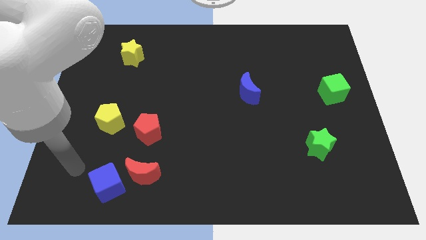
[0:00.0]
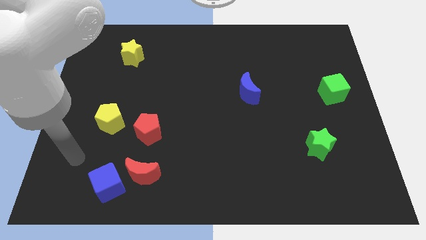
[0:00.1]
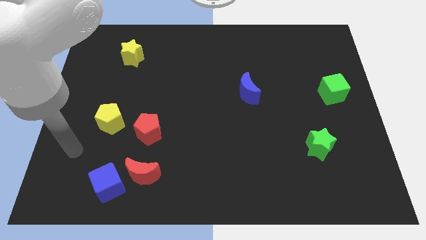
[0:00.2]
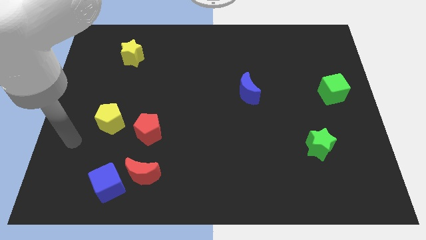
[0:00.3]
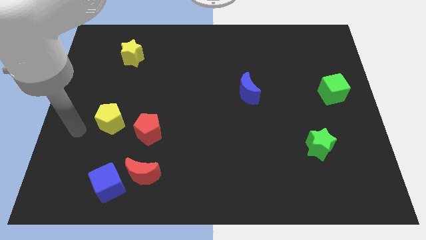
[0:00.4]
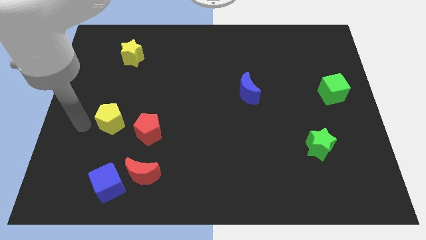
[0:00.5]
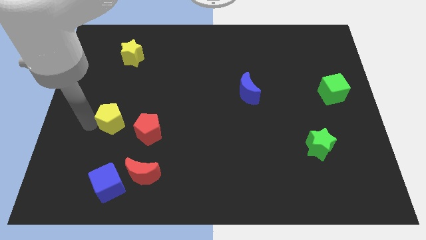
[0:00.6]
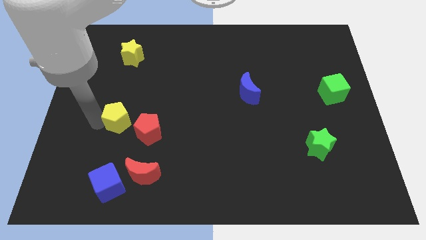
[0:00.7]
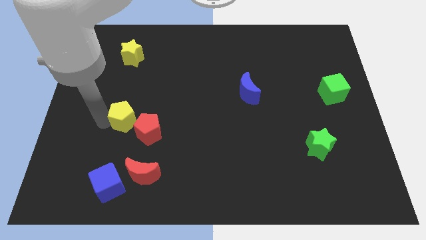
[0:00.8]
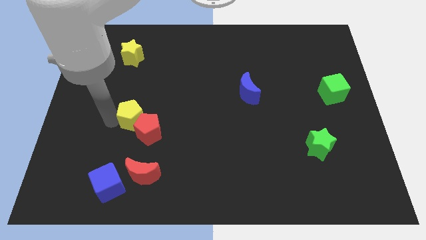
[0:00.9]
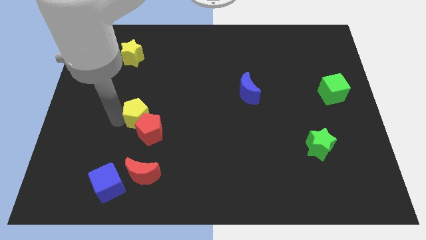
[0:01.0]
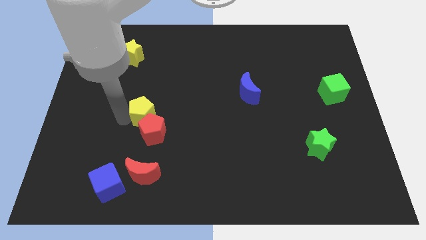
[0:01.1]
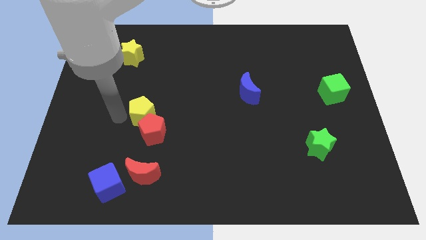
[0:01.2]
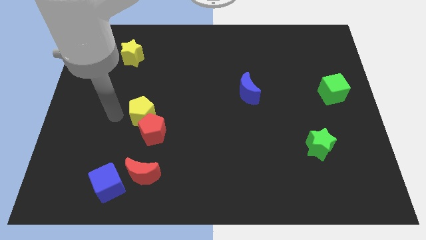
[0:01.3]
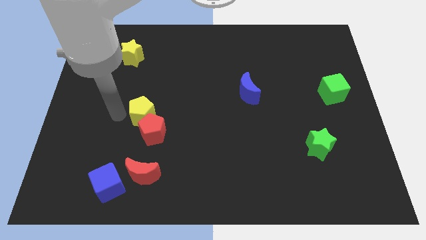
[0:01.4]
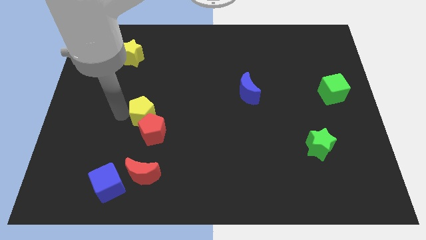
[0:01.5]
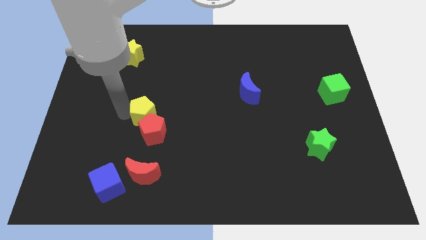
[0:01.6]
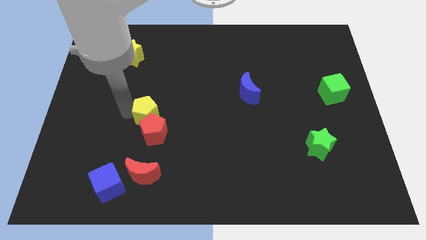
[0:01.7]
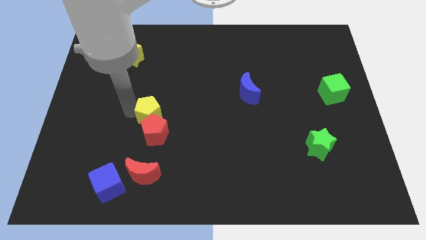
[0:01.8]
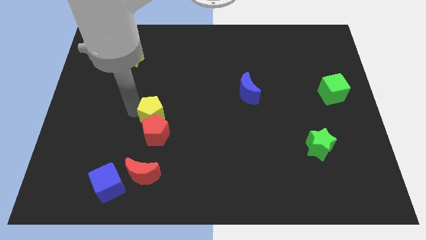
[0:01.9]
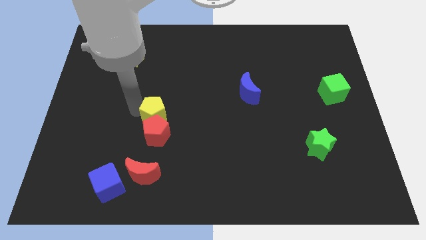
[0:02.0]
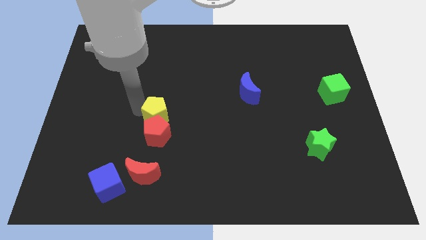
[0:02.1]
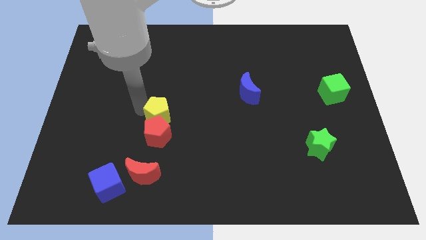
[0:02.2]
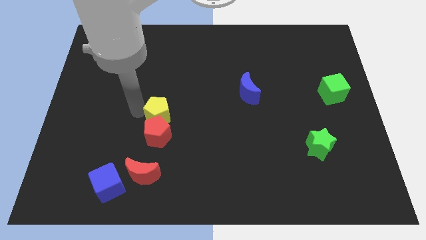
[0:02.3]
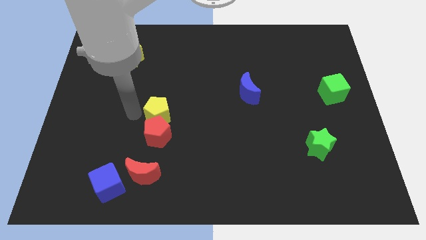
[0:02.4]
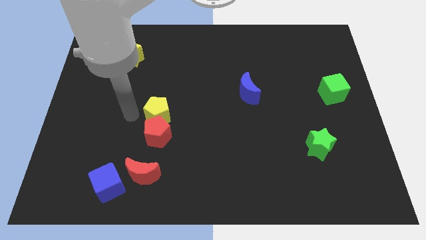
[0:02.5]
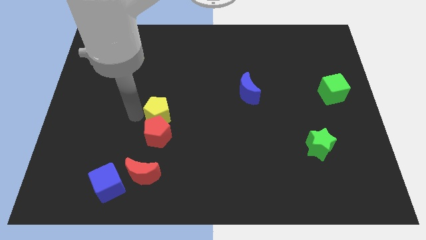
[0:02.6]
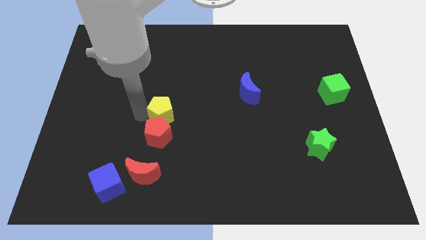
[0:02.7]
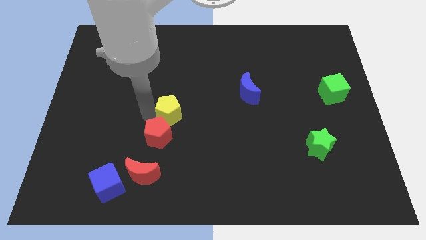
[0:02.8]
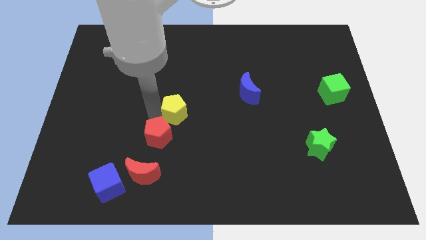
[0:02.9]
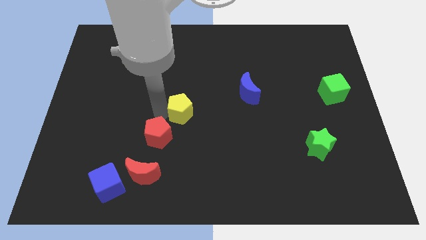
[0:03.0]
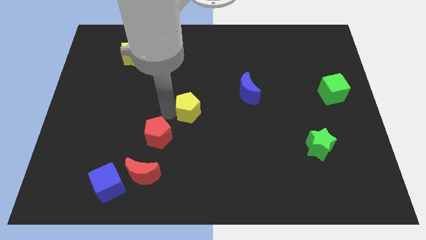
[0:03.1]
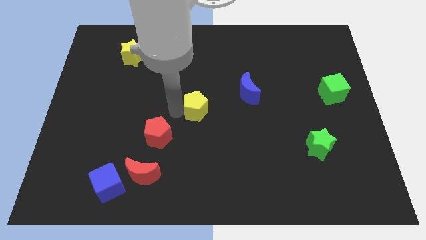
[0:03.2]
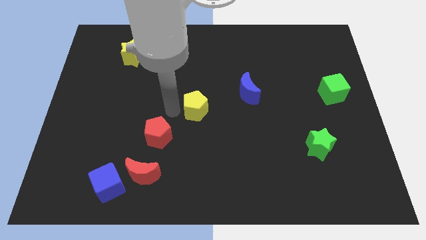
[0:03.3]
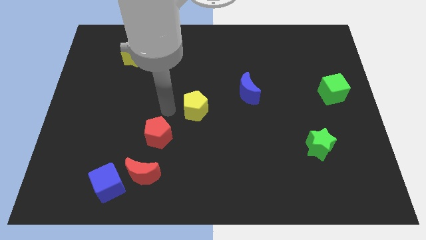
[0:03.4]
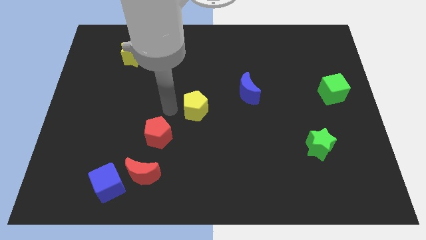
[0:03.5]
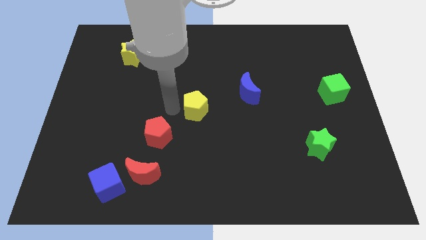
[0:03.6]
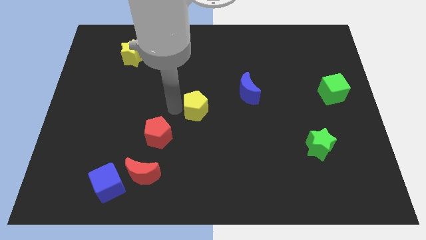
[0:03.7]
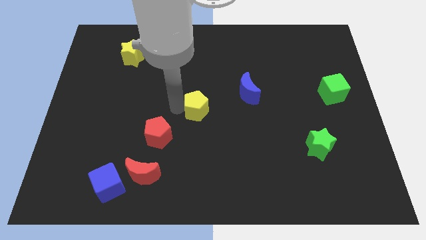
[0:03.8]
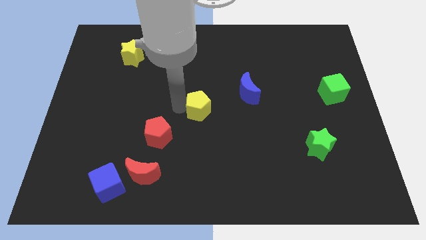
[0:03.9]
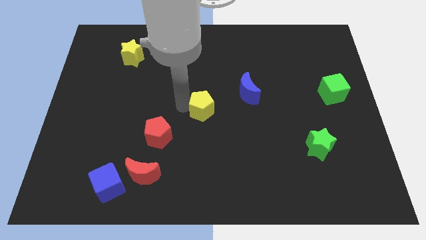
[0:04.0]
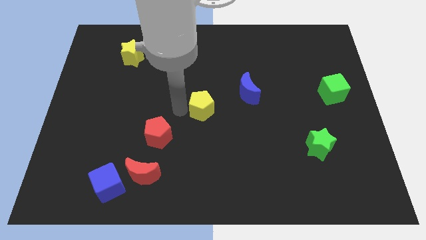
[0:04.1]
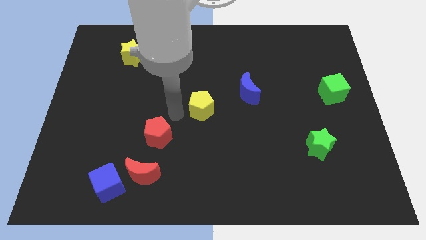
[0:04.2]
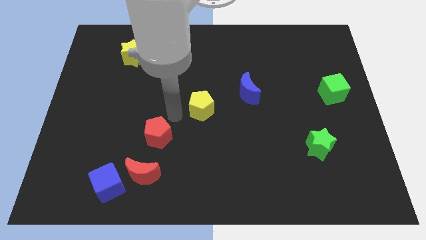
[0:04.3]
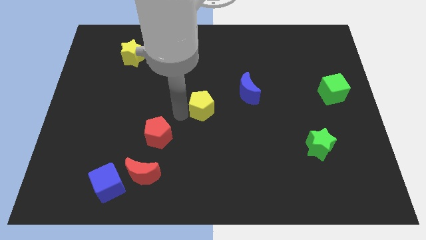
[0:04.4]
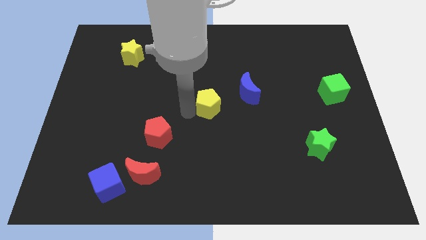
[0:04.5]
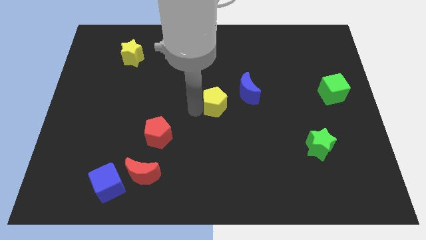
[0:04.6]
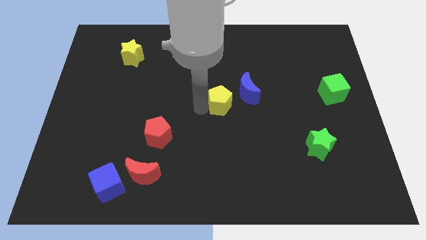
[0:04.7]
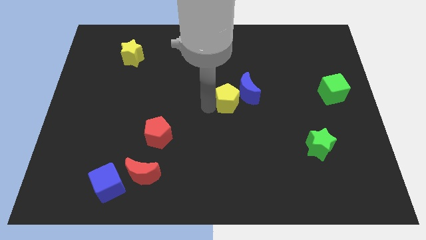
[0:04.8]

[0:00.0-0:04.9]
put the yellow pentagon next to the blue moon

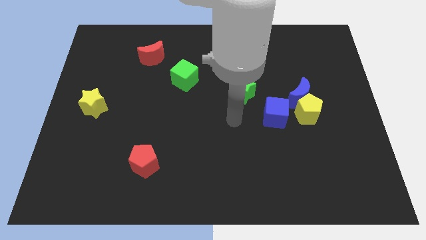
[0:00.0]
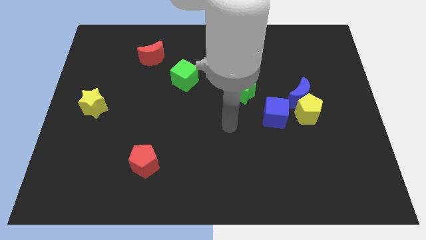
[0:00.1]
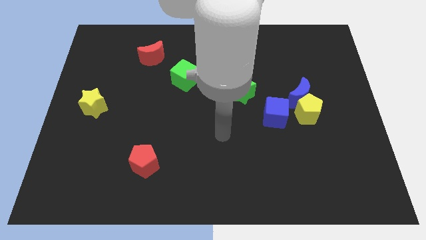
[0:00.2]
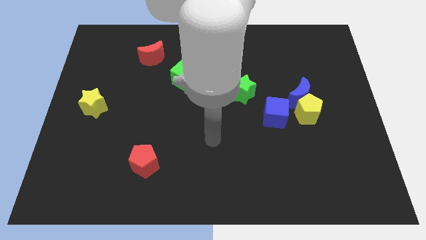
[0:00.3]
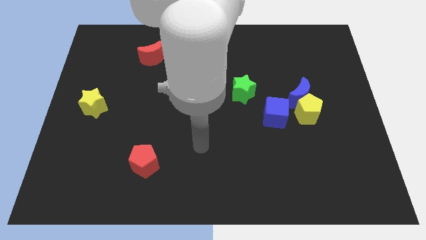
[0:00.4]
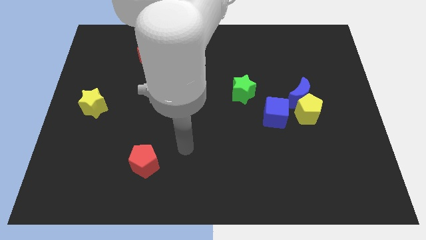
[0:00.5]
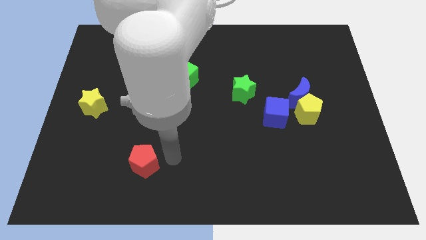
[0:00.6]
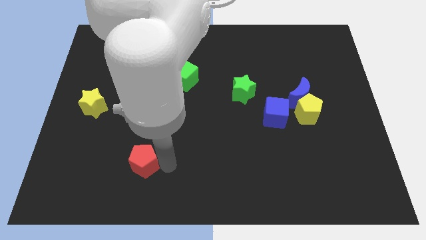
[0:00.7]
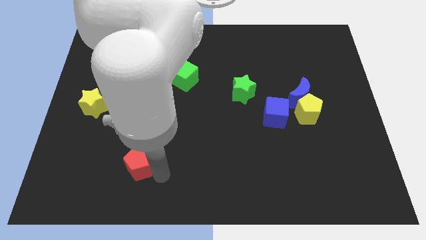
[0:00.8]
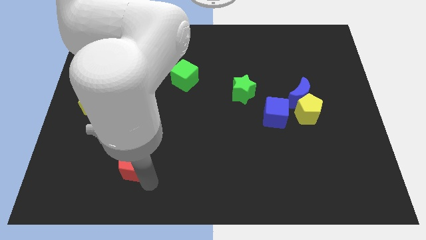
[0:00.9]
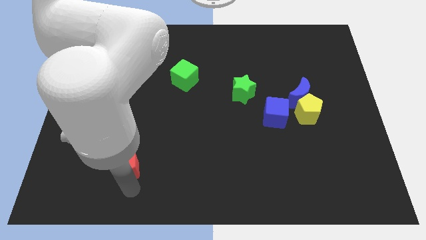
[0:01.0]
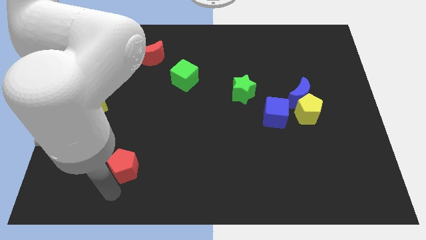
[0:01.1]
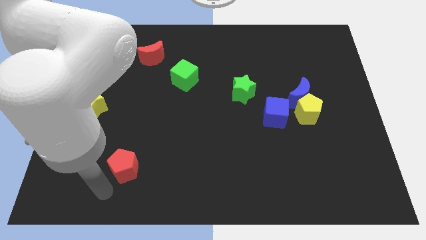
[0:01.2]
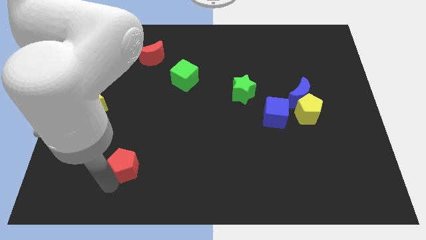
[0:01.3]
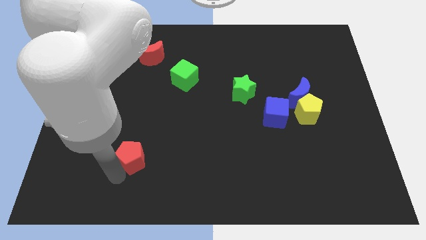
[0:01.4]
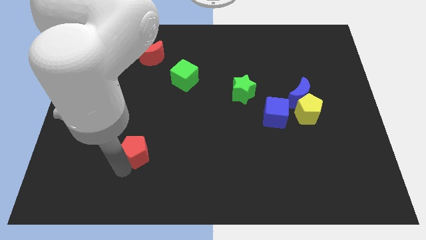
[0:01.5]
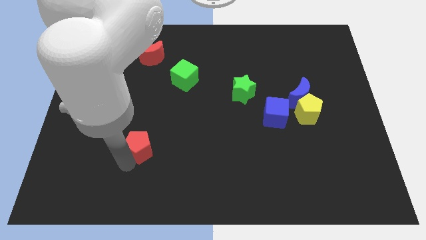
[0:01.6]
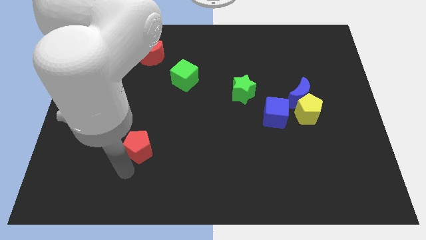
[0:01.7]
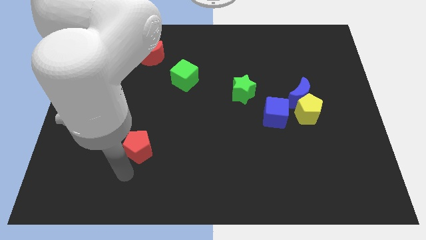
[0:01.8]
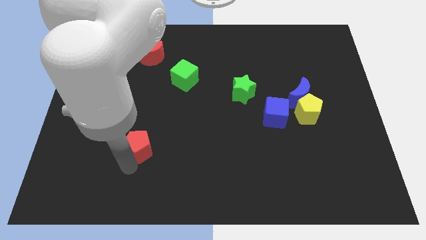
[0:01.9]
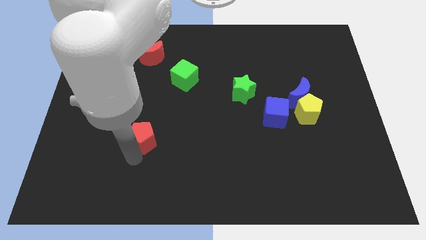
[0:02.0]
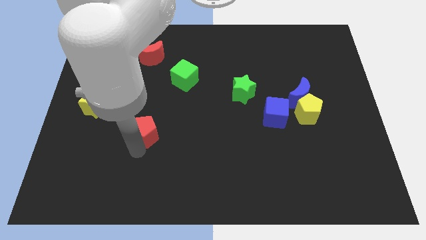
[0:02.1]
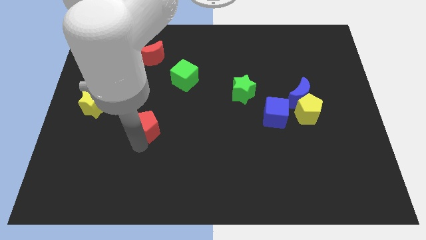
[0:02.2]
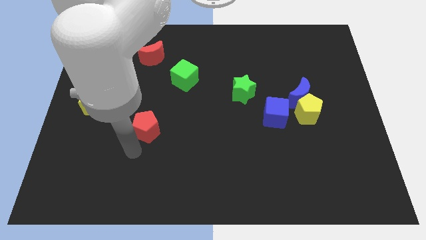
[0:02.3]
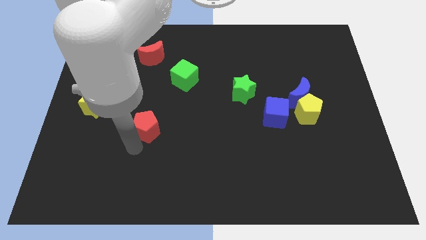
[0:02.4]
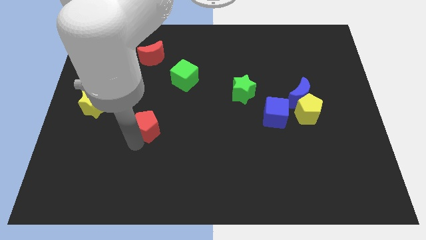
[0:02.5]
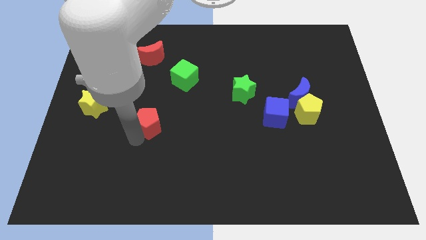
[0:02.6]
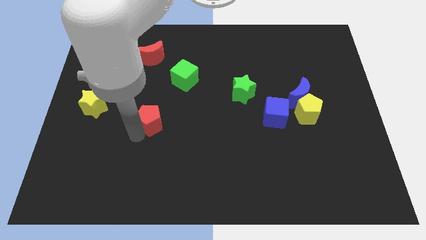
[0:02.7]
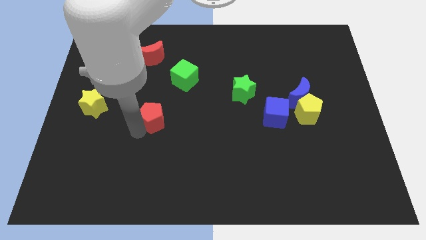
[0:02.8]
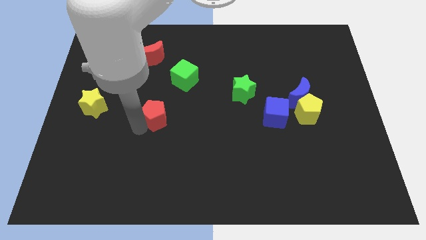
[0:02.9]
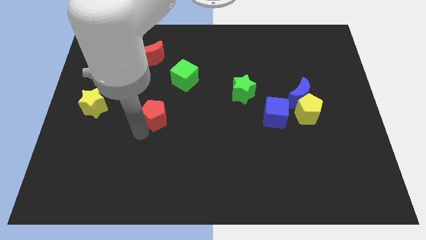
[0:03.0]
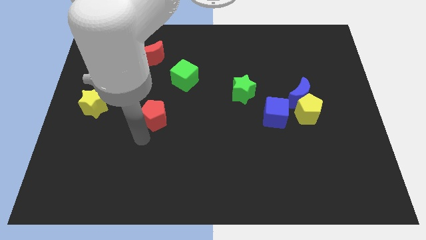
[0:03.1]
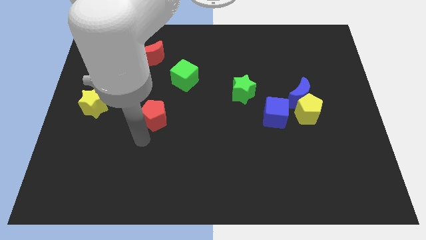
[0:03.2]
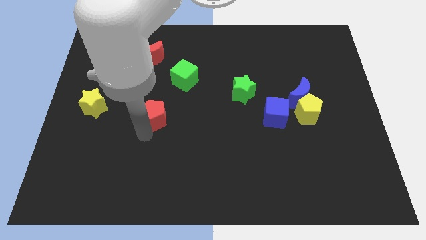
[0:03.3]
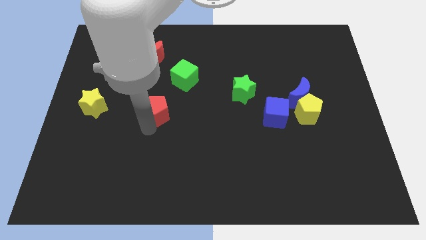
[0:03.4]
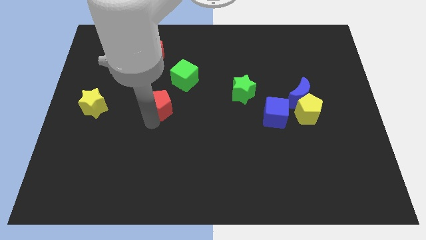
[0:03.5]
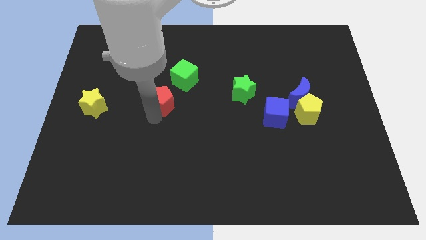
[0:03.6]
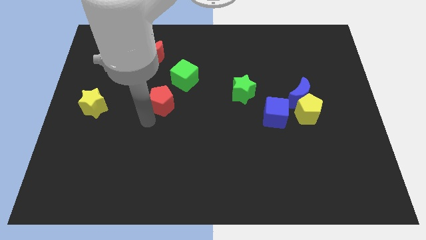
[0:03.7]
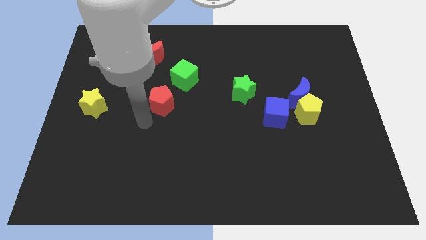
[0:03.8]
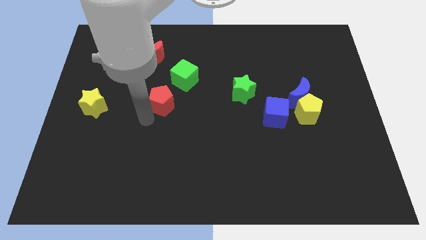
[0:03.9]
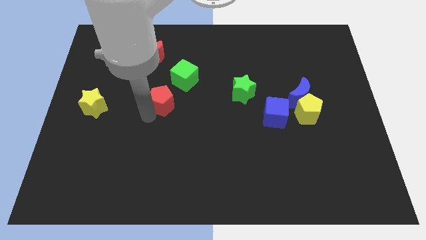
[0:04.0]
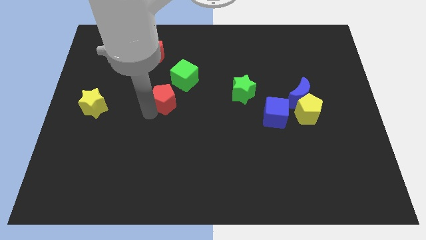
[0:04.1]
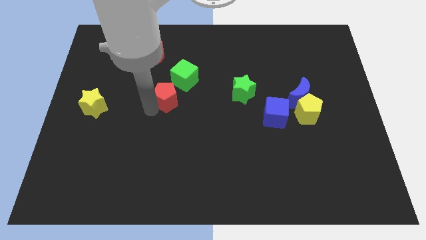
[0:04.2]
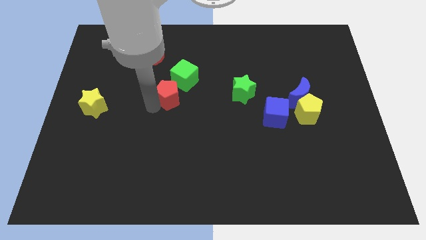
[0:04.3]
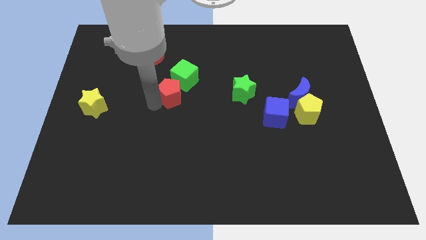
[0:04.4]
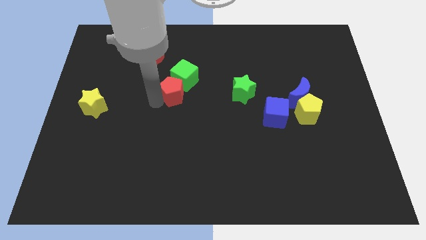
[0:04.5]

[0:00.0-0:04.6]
slide the red pentagon close to the green cube
